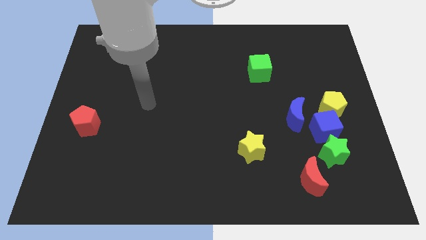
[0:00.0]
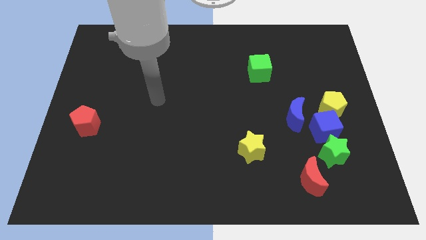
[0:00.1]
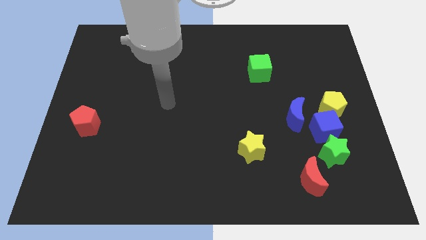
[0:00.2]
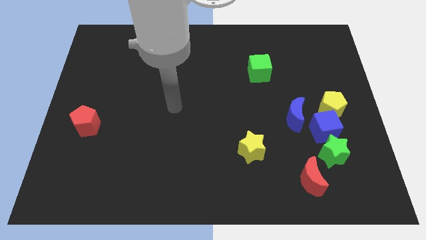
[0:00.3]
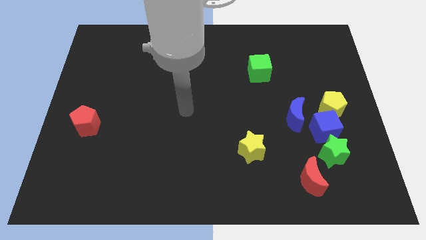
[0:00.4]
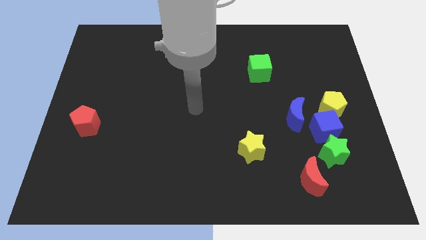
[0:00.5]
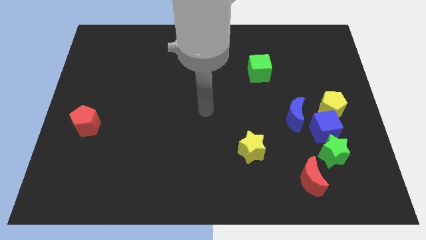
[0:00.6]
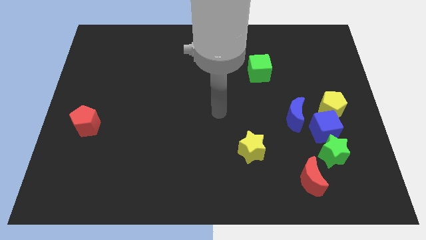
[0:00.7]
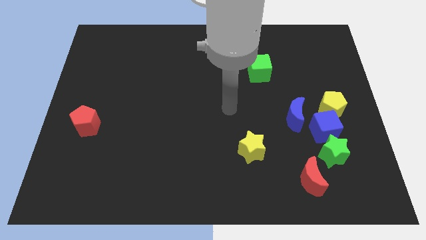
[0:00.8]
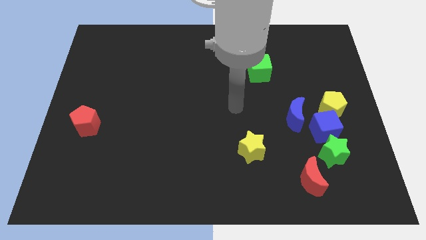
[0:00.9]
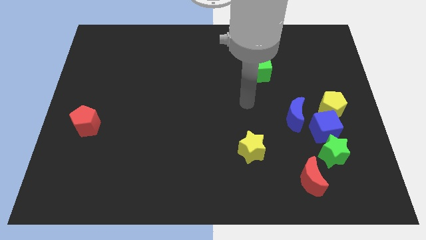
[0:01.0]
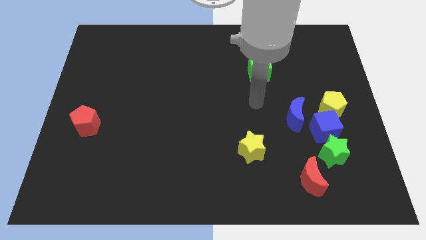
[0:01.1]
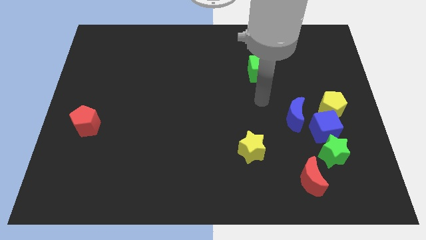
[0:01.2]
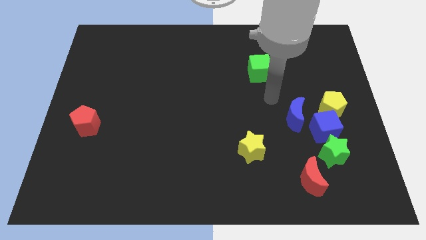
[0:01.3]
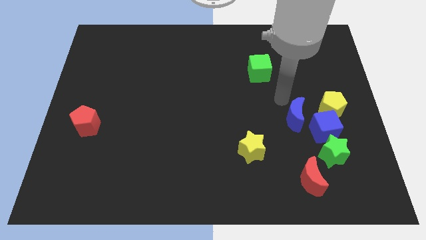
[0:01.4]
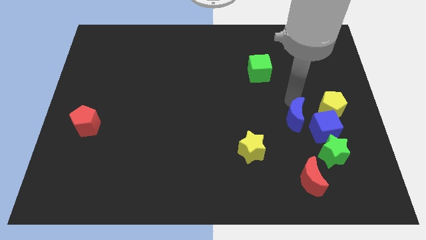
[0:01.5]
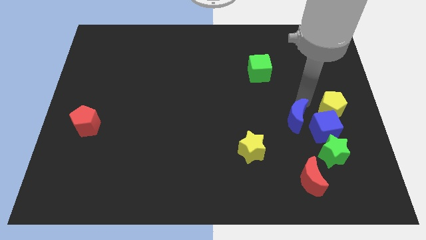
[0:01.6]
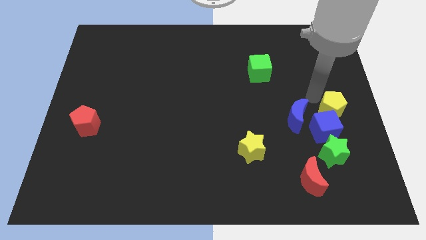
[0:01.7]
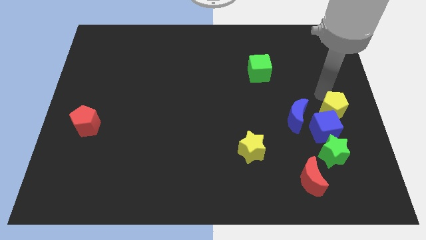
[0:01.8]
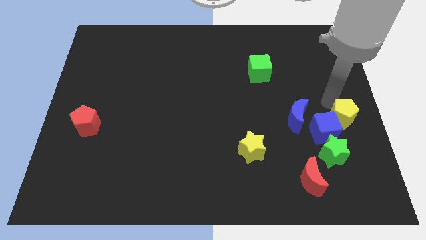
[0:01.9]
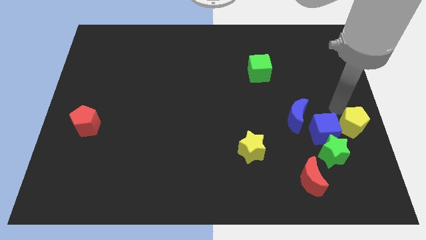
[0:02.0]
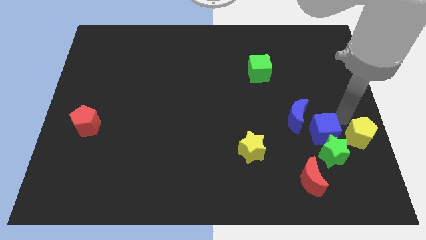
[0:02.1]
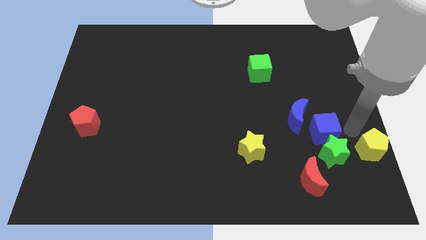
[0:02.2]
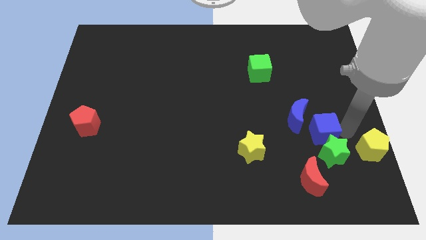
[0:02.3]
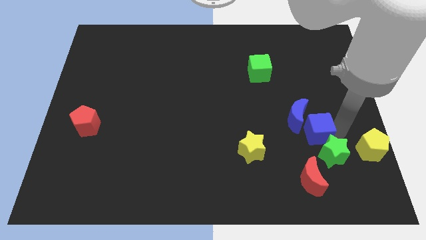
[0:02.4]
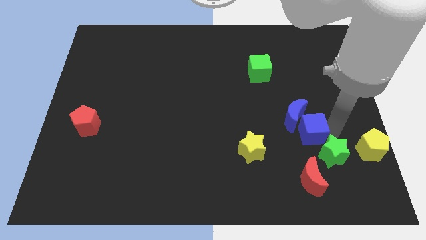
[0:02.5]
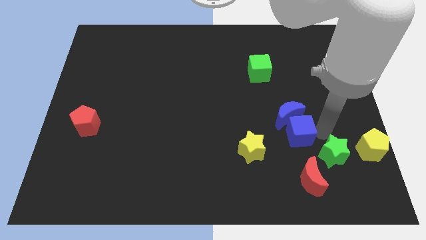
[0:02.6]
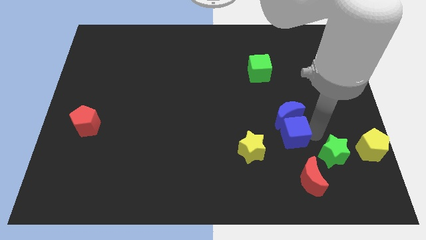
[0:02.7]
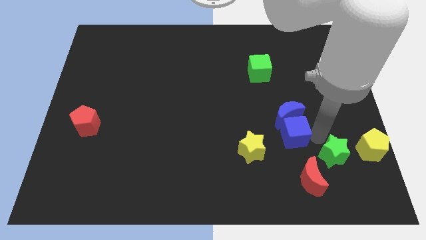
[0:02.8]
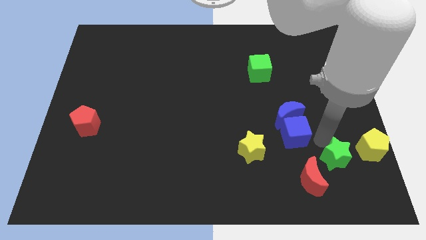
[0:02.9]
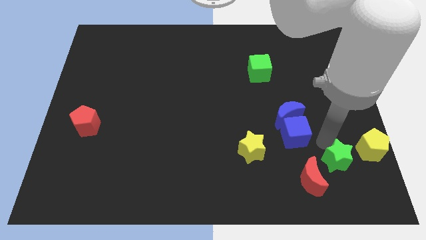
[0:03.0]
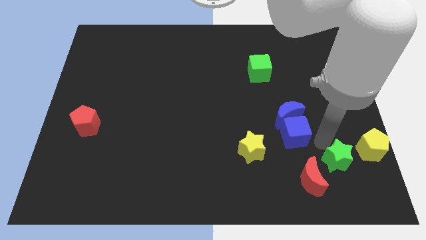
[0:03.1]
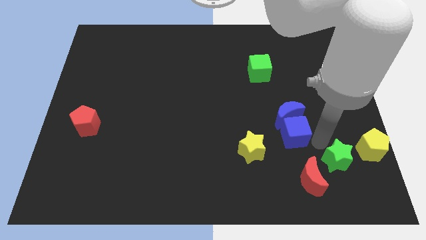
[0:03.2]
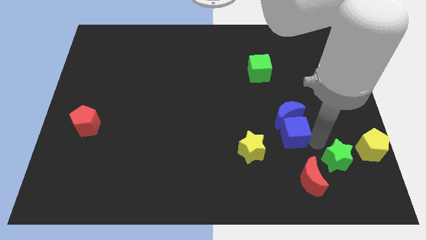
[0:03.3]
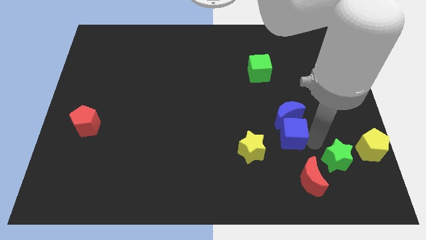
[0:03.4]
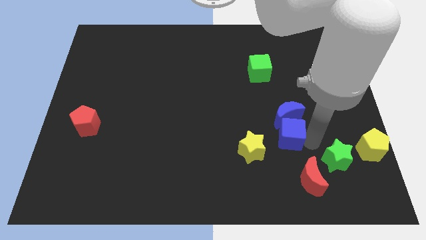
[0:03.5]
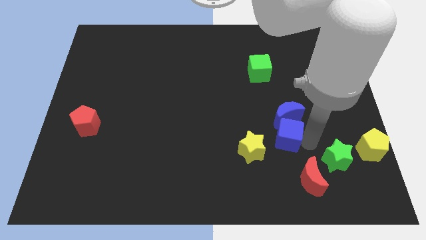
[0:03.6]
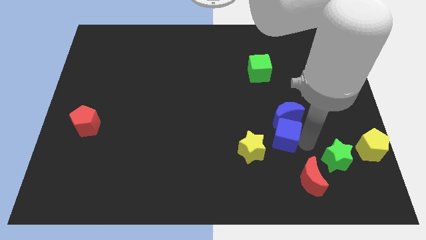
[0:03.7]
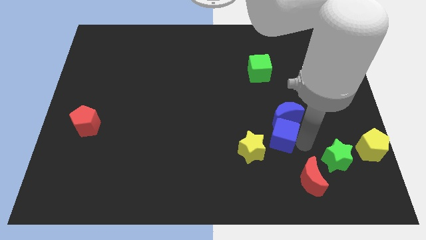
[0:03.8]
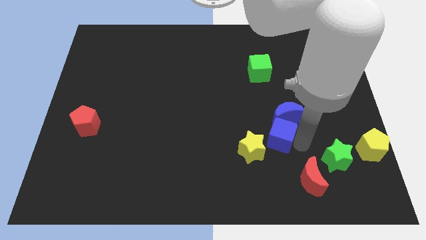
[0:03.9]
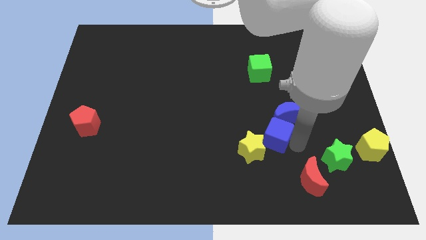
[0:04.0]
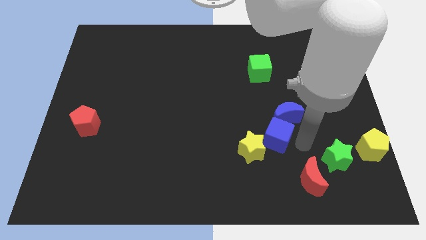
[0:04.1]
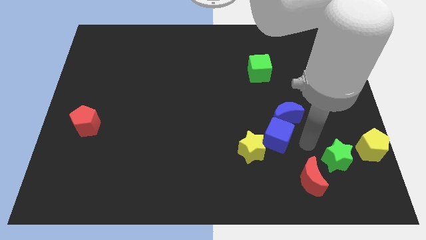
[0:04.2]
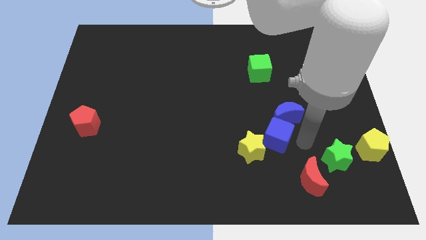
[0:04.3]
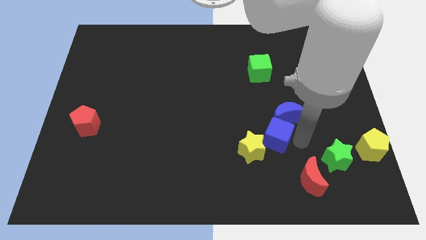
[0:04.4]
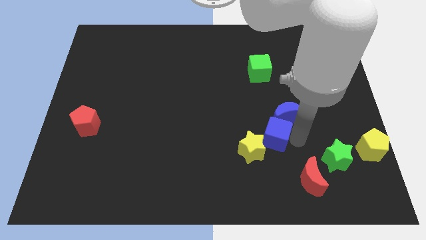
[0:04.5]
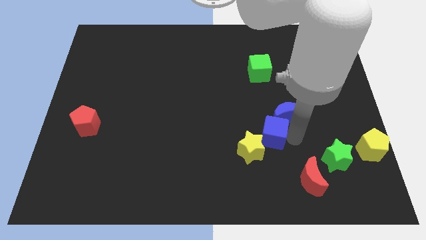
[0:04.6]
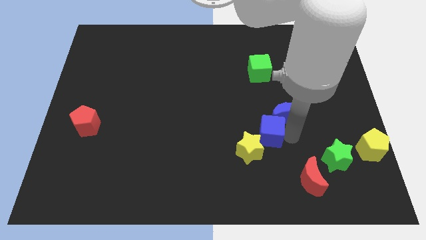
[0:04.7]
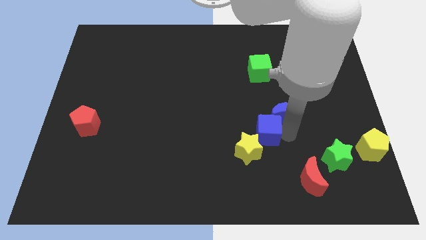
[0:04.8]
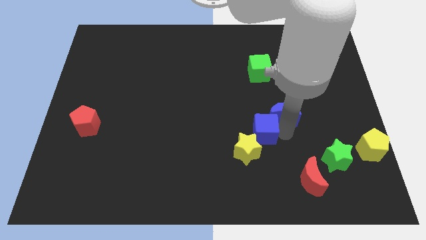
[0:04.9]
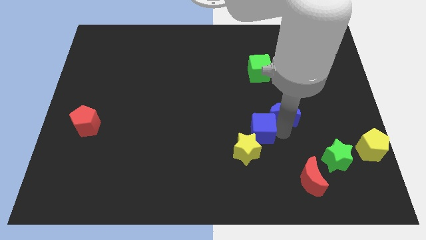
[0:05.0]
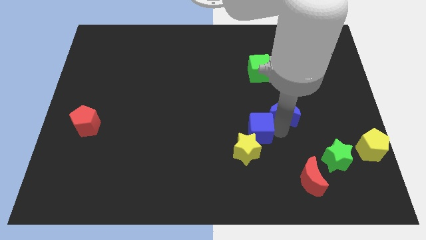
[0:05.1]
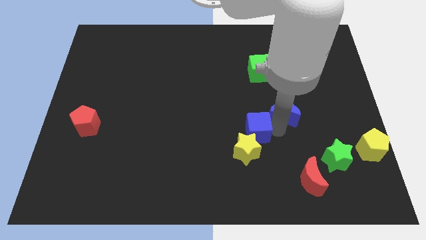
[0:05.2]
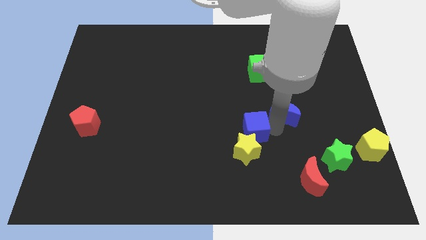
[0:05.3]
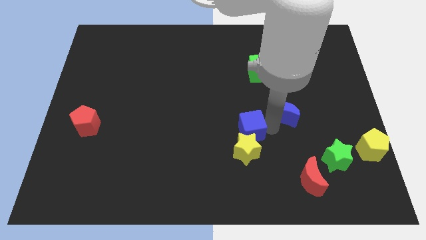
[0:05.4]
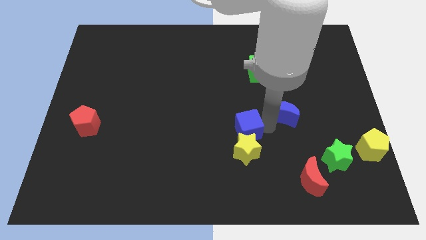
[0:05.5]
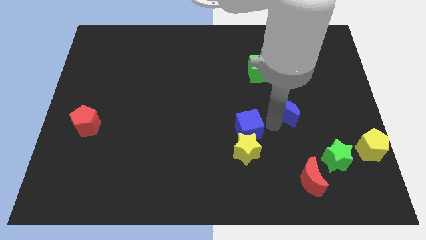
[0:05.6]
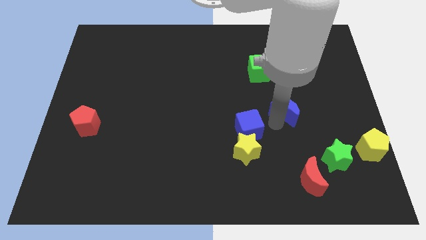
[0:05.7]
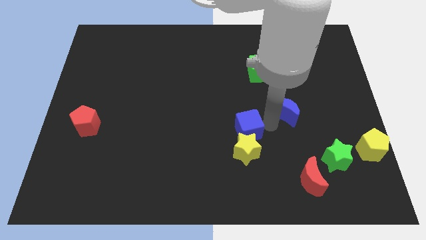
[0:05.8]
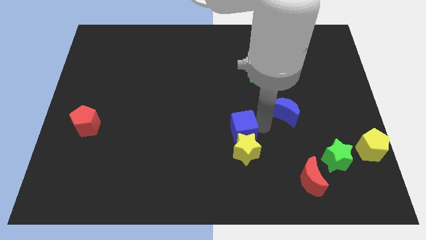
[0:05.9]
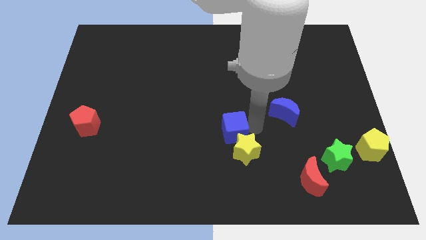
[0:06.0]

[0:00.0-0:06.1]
slide the blue cube to the left

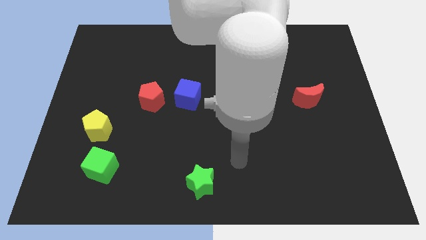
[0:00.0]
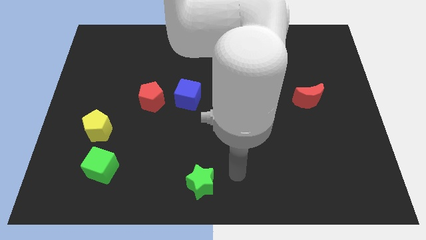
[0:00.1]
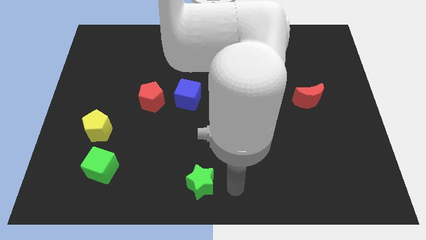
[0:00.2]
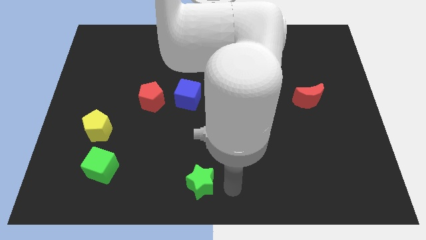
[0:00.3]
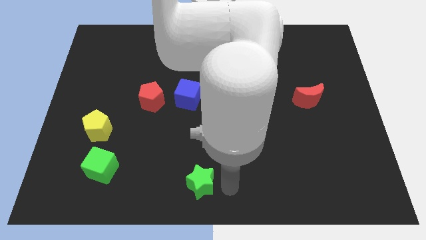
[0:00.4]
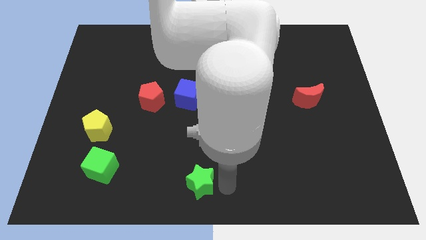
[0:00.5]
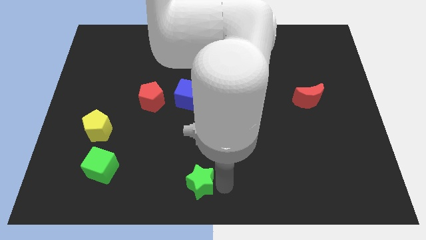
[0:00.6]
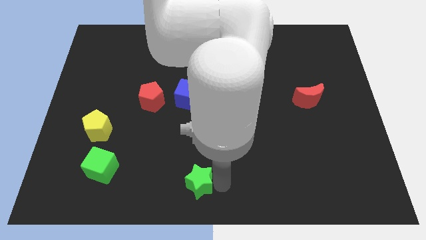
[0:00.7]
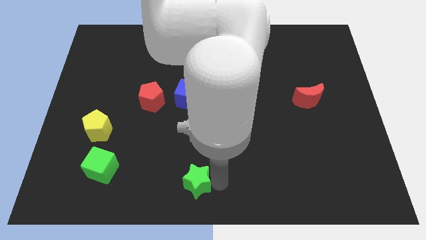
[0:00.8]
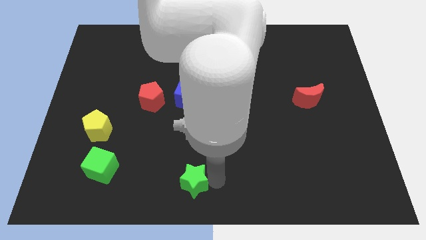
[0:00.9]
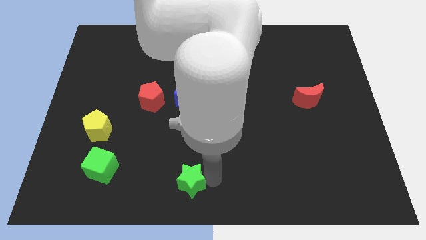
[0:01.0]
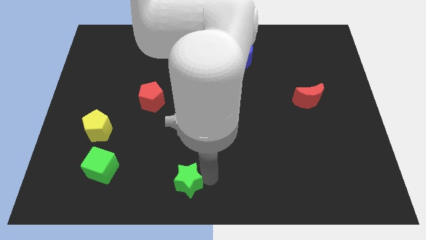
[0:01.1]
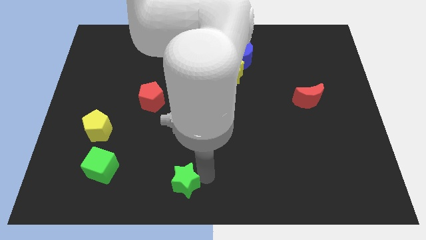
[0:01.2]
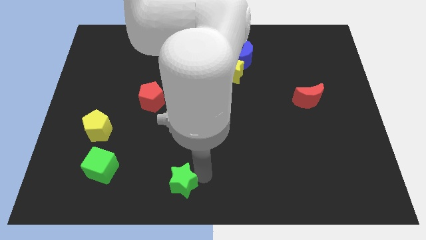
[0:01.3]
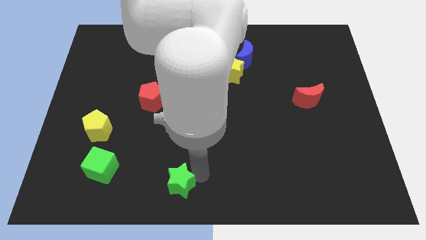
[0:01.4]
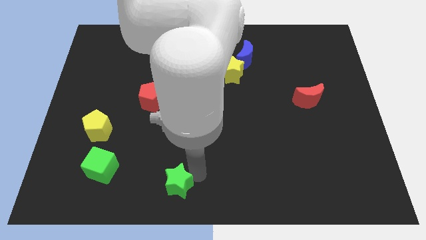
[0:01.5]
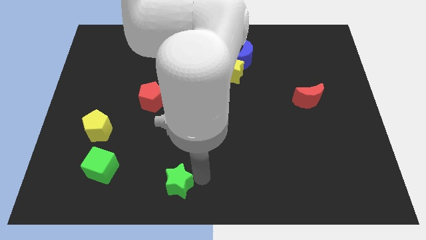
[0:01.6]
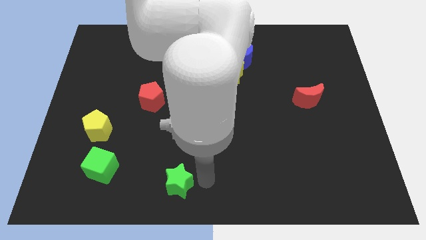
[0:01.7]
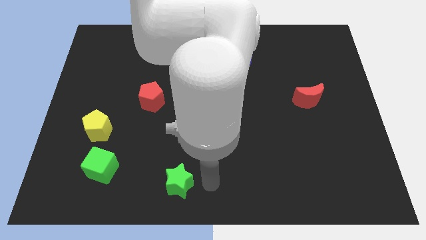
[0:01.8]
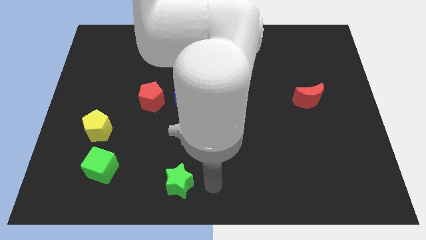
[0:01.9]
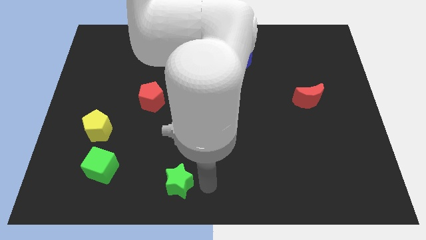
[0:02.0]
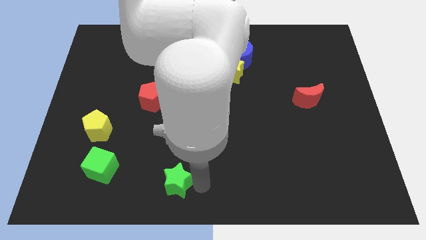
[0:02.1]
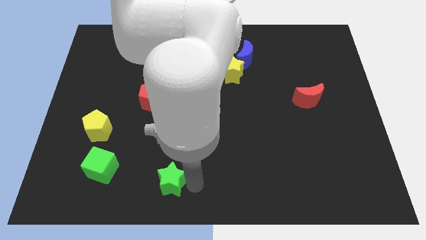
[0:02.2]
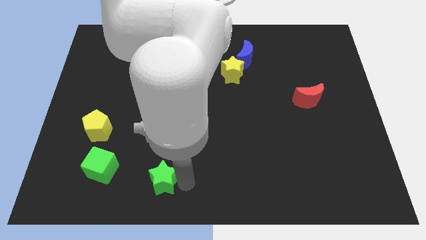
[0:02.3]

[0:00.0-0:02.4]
slide the green star to the left slightly
